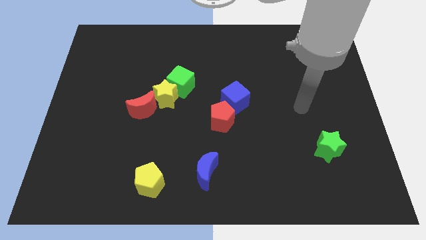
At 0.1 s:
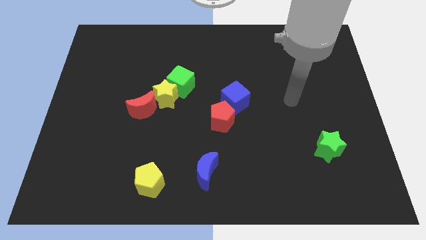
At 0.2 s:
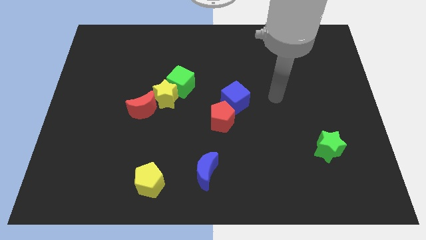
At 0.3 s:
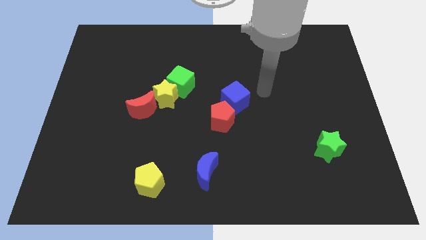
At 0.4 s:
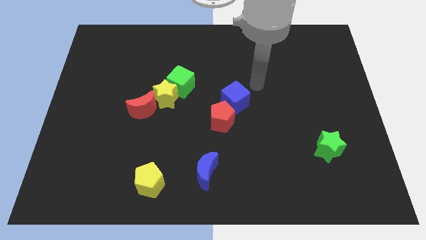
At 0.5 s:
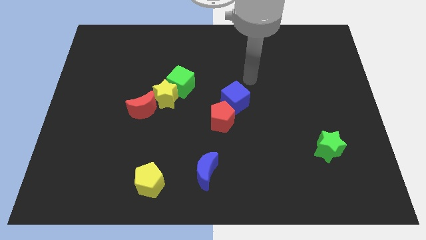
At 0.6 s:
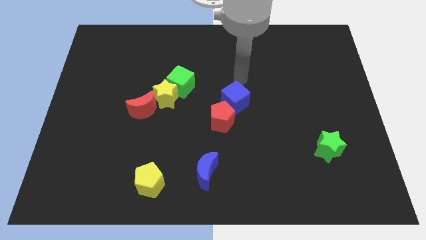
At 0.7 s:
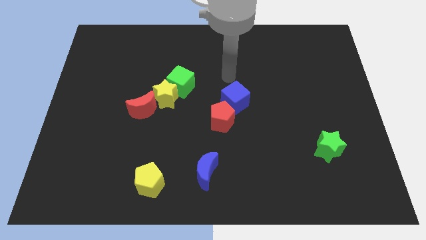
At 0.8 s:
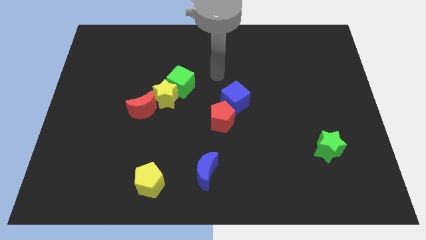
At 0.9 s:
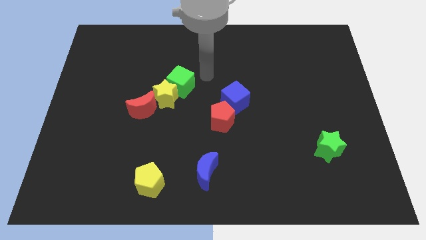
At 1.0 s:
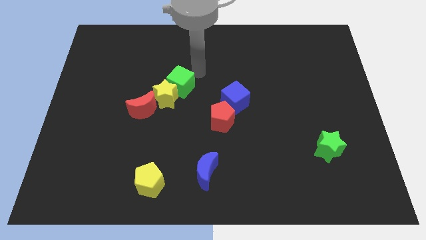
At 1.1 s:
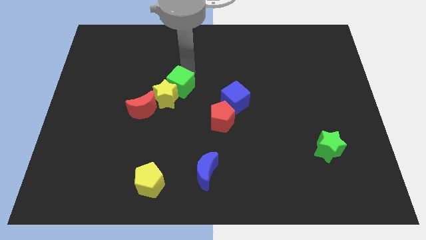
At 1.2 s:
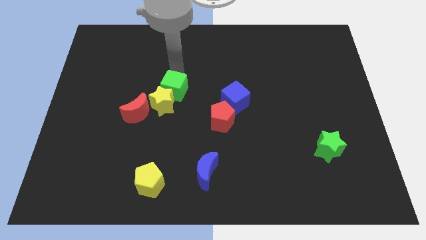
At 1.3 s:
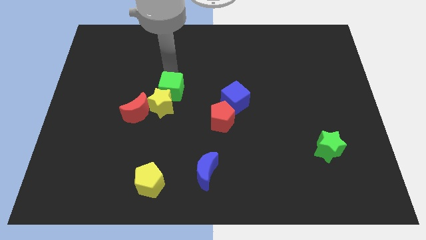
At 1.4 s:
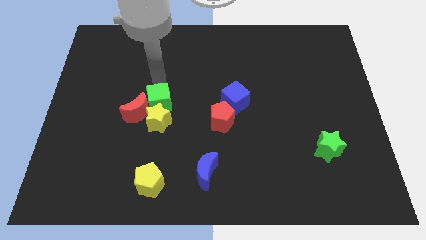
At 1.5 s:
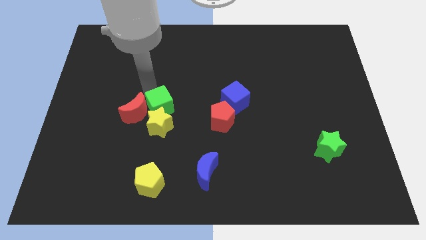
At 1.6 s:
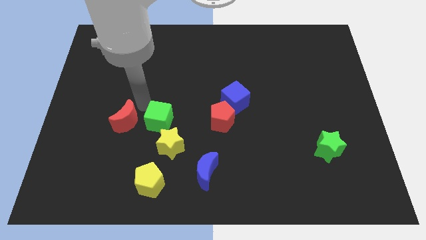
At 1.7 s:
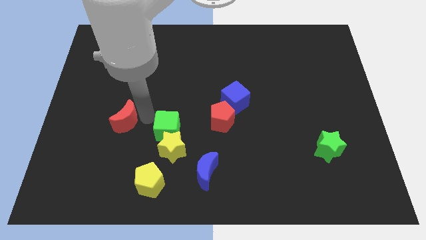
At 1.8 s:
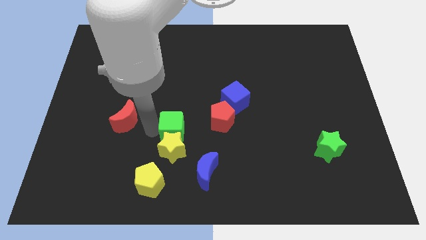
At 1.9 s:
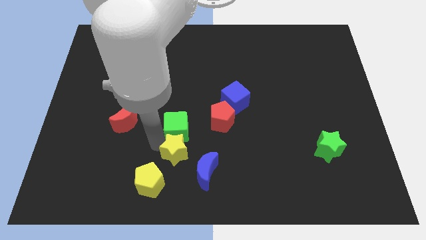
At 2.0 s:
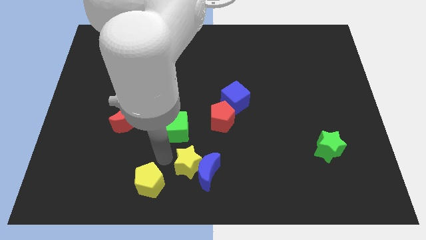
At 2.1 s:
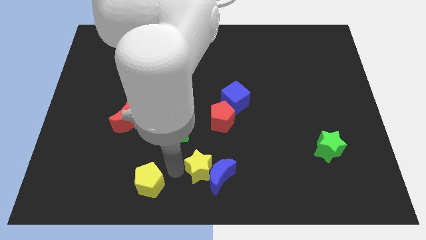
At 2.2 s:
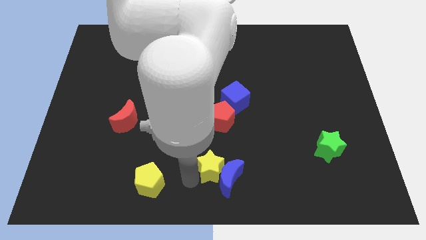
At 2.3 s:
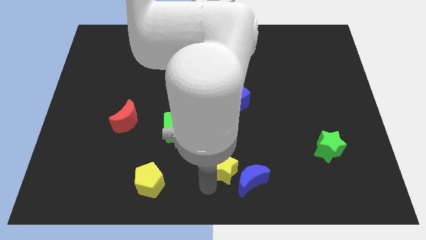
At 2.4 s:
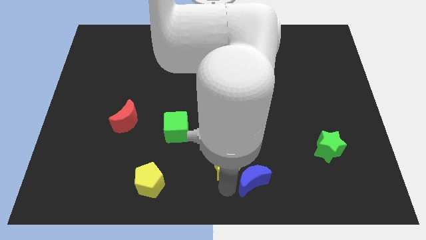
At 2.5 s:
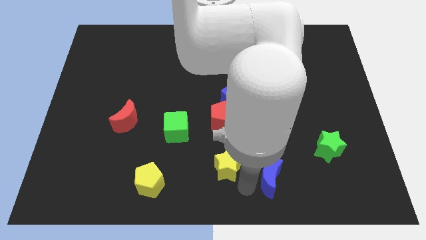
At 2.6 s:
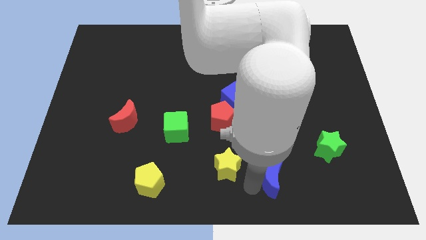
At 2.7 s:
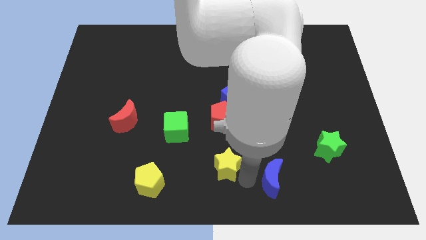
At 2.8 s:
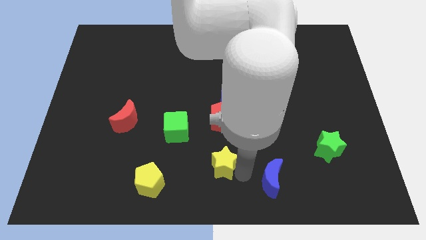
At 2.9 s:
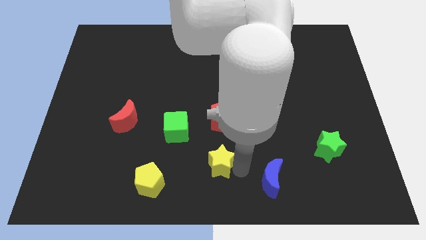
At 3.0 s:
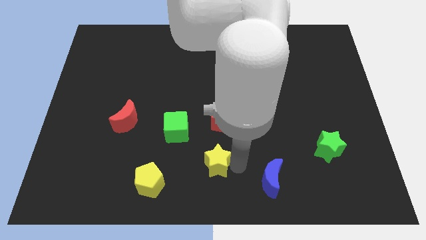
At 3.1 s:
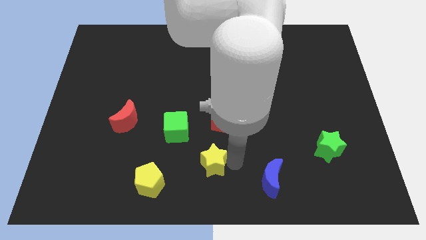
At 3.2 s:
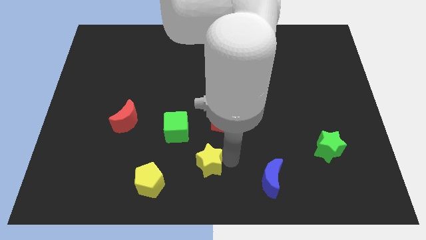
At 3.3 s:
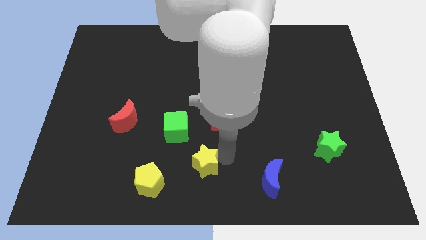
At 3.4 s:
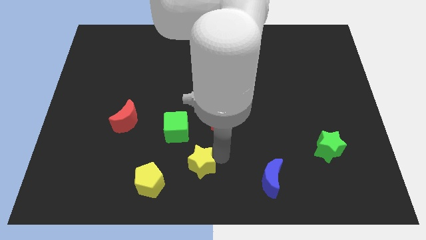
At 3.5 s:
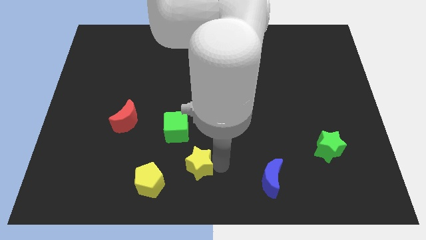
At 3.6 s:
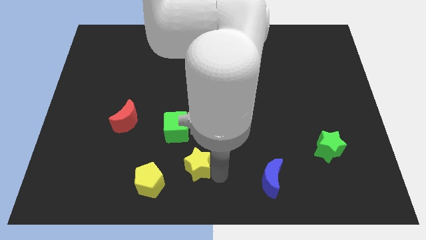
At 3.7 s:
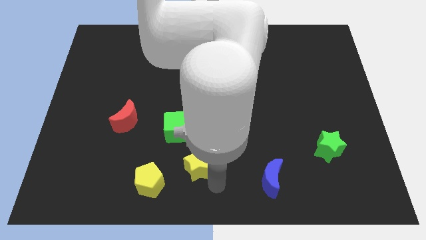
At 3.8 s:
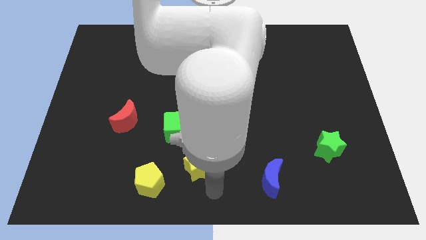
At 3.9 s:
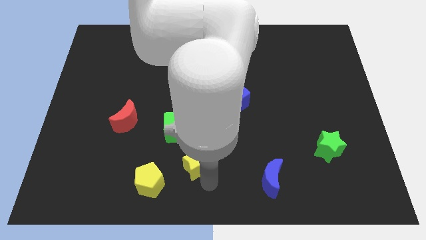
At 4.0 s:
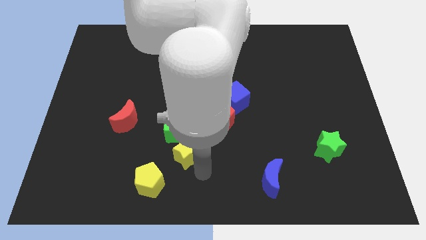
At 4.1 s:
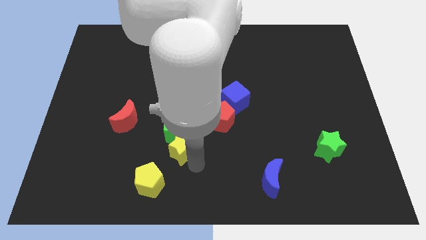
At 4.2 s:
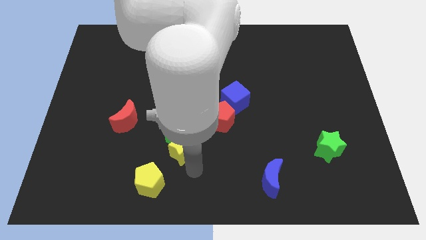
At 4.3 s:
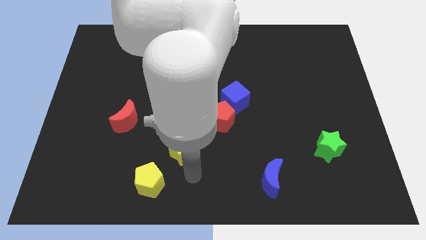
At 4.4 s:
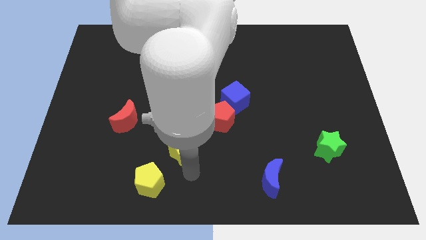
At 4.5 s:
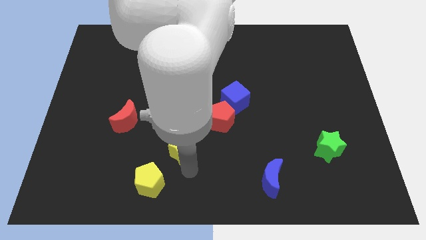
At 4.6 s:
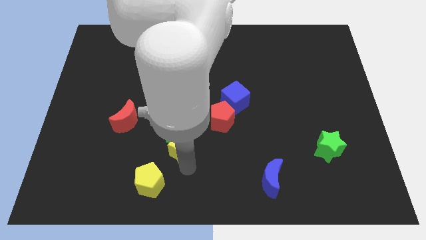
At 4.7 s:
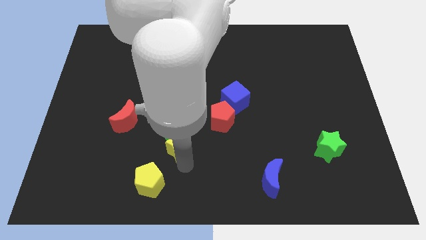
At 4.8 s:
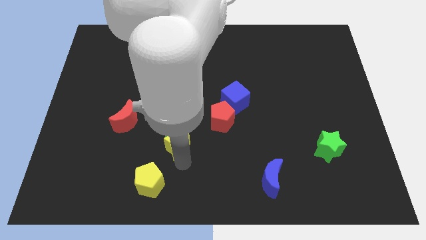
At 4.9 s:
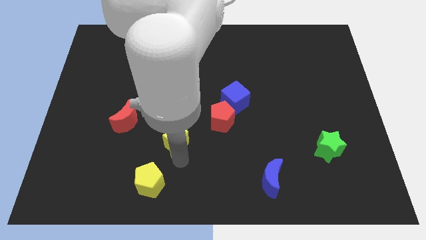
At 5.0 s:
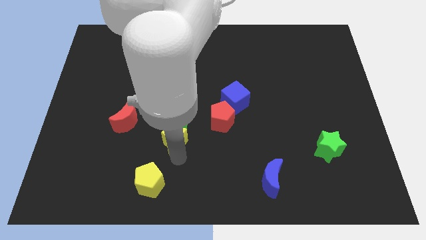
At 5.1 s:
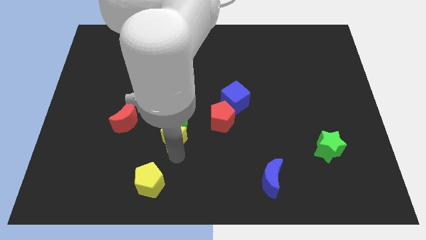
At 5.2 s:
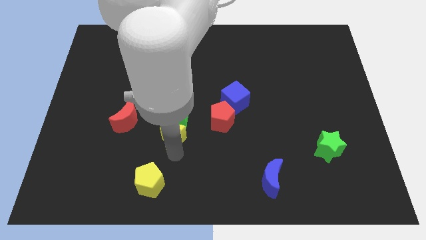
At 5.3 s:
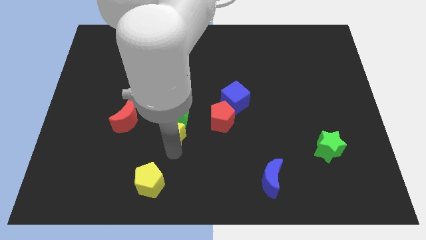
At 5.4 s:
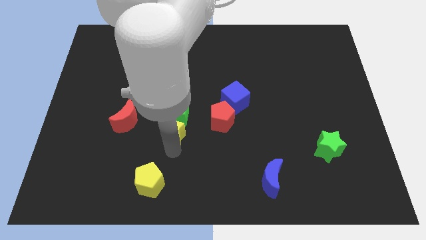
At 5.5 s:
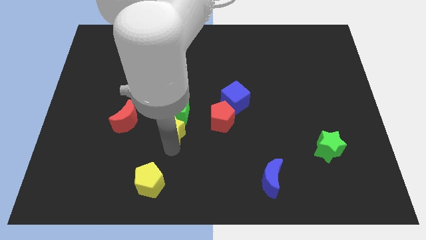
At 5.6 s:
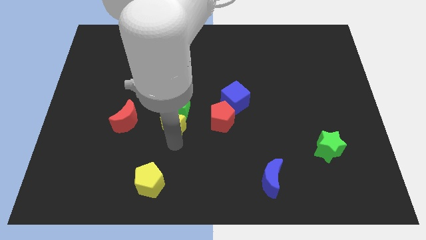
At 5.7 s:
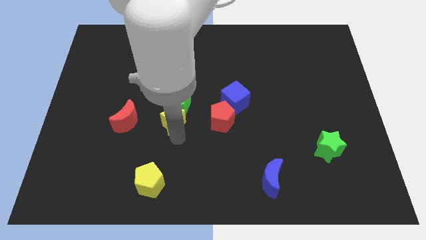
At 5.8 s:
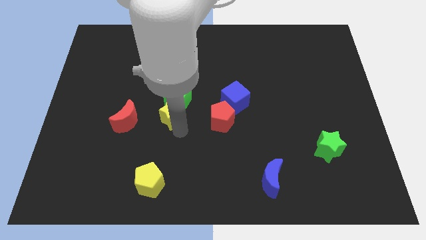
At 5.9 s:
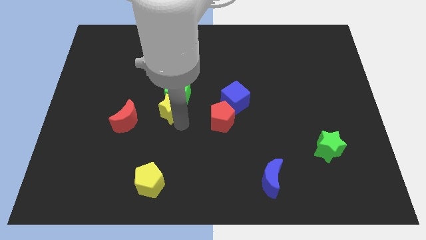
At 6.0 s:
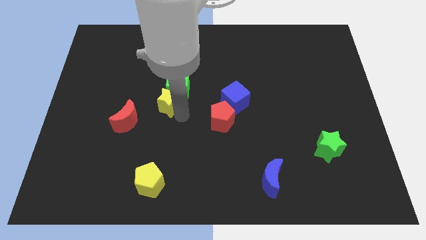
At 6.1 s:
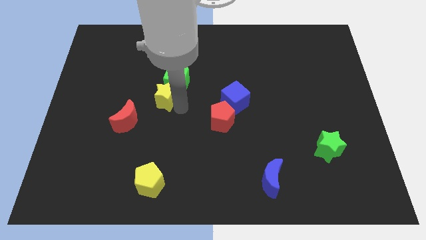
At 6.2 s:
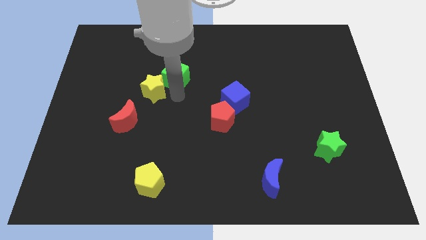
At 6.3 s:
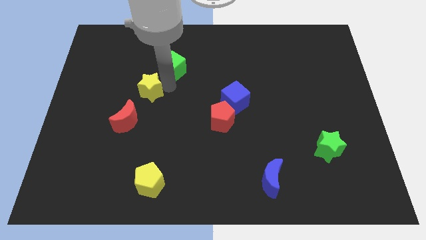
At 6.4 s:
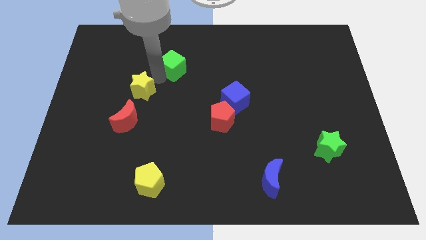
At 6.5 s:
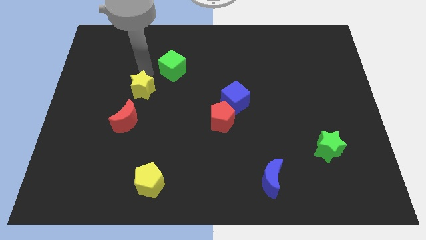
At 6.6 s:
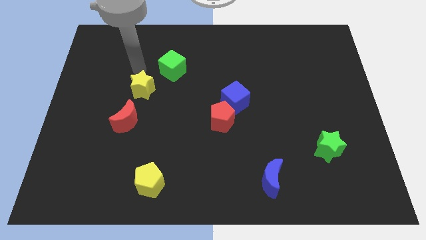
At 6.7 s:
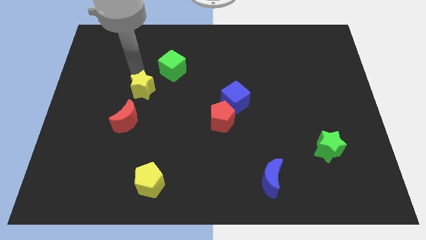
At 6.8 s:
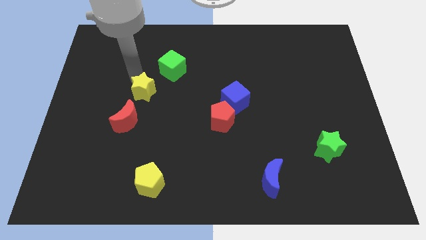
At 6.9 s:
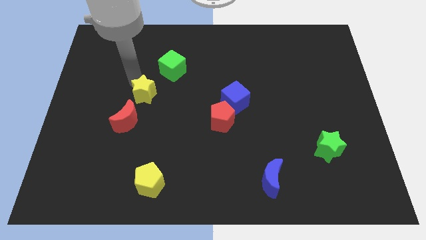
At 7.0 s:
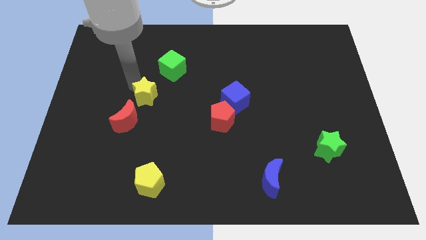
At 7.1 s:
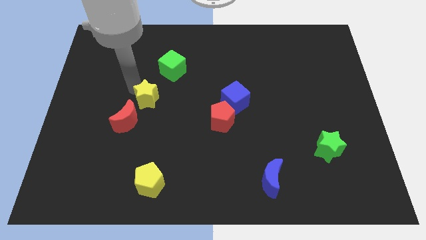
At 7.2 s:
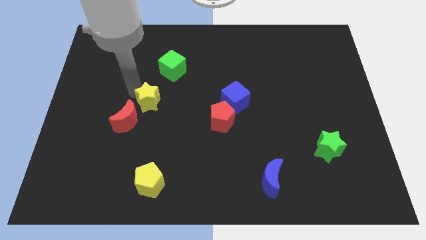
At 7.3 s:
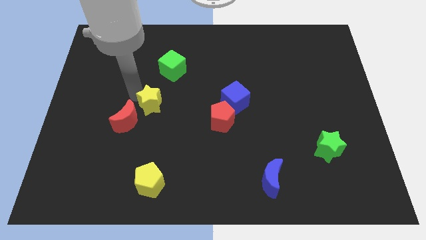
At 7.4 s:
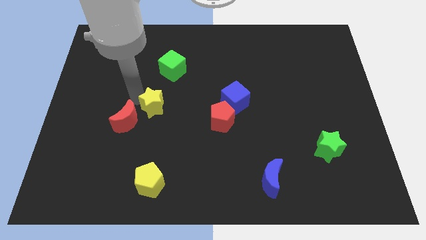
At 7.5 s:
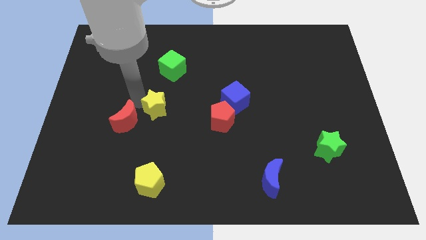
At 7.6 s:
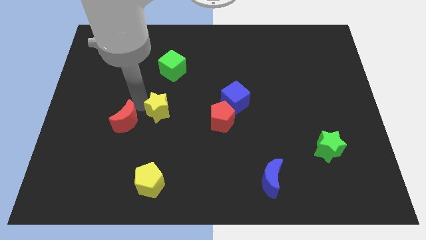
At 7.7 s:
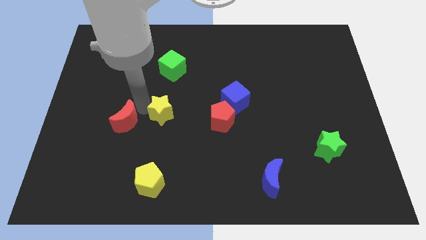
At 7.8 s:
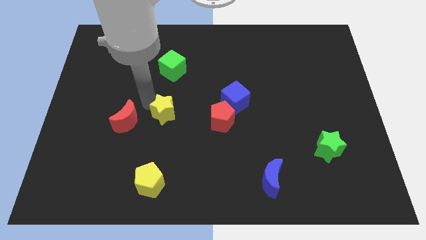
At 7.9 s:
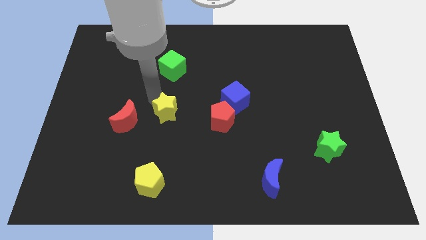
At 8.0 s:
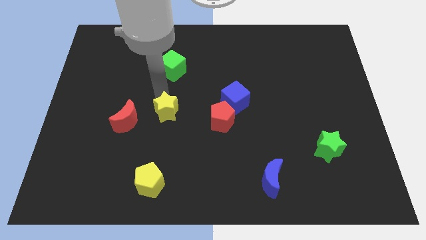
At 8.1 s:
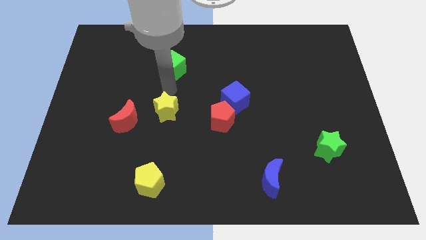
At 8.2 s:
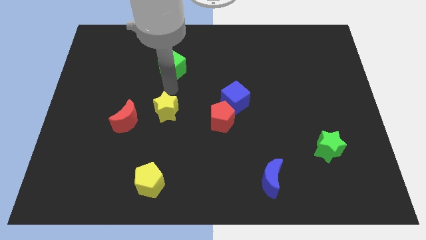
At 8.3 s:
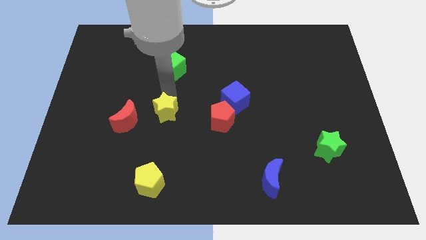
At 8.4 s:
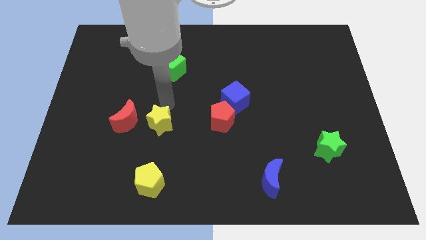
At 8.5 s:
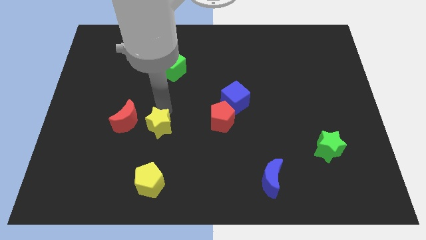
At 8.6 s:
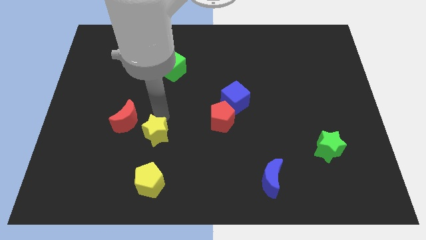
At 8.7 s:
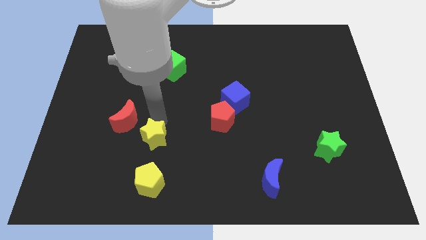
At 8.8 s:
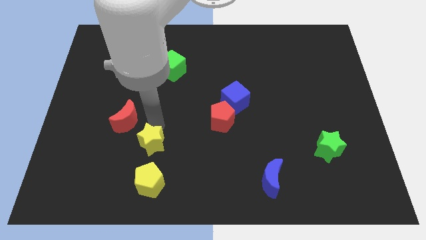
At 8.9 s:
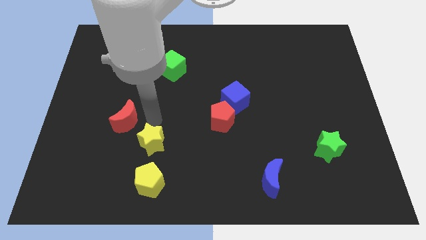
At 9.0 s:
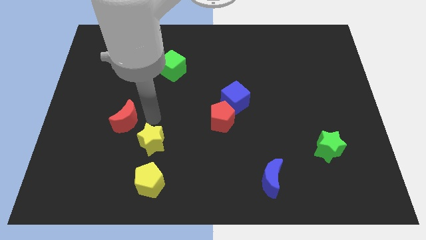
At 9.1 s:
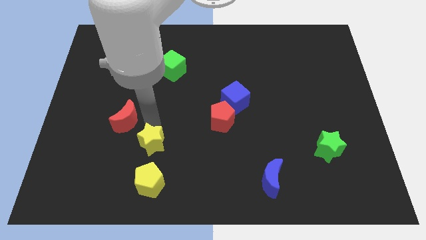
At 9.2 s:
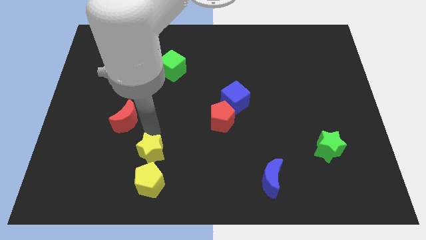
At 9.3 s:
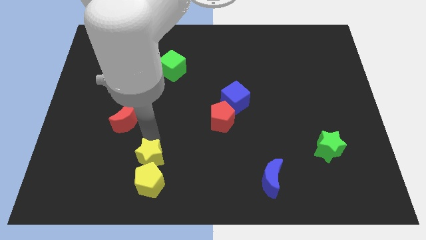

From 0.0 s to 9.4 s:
put the yellow star next to the yellow pentagon
